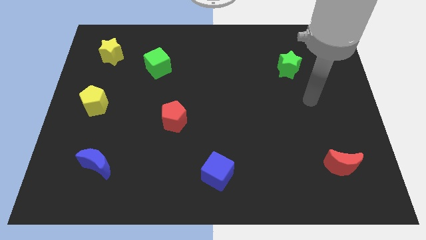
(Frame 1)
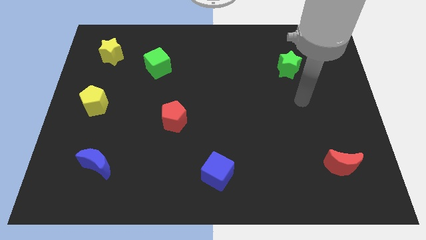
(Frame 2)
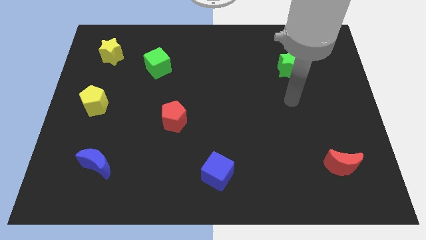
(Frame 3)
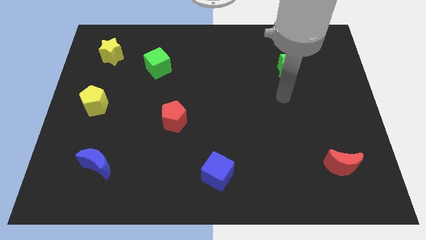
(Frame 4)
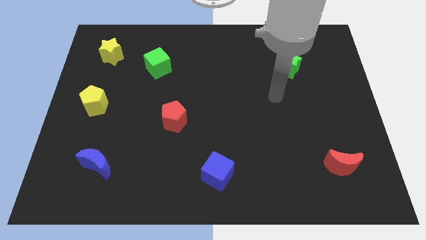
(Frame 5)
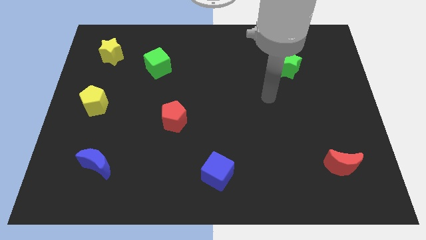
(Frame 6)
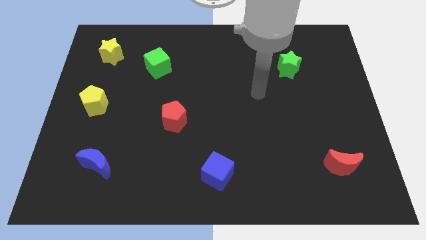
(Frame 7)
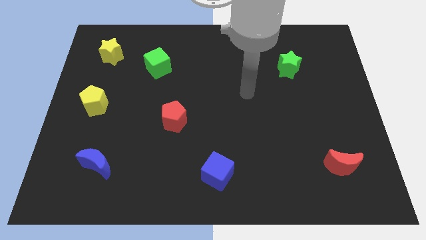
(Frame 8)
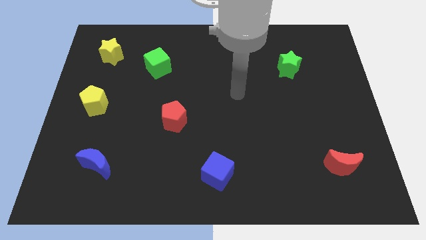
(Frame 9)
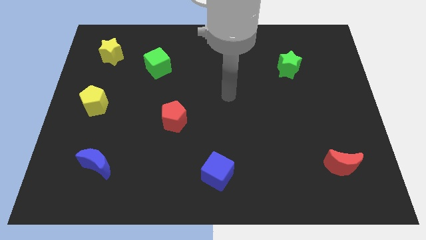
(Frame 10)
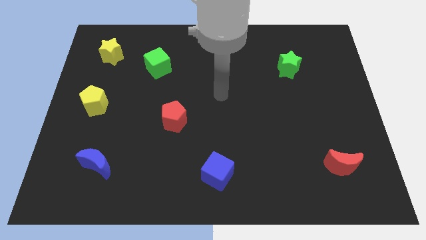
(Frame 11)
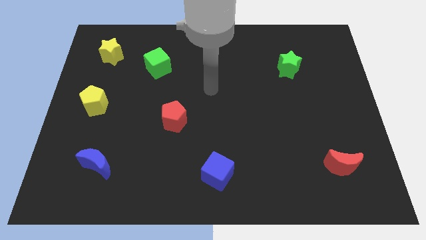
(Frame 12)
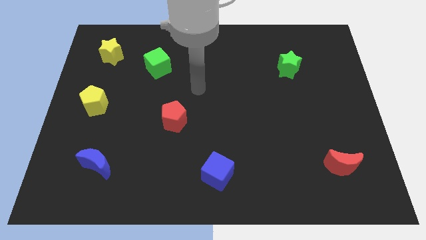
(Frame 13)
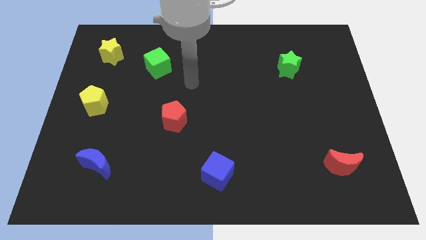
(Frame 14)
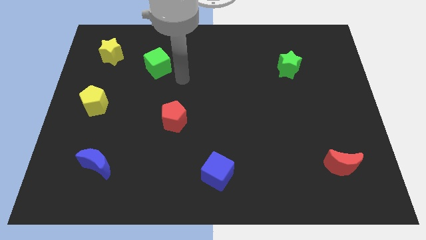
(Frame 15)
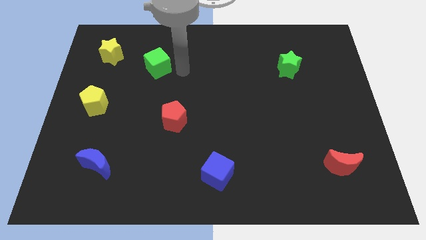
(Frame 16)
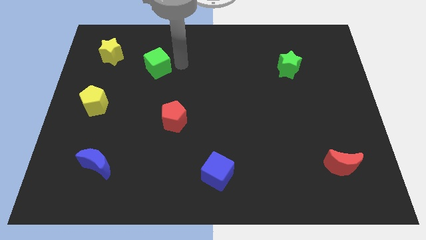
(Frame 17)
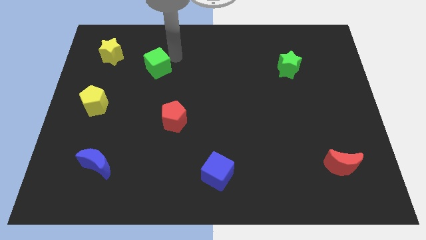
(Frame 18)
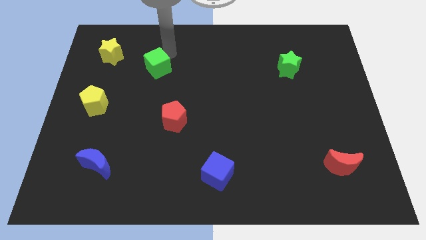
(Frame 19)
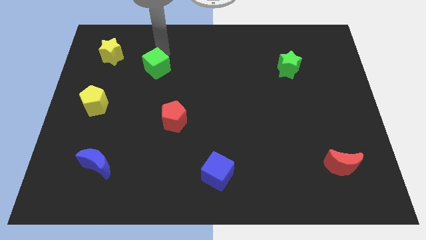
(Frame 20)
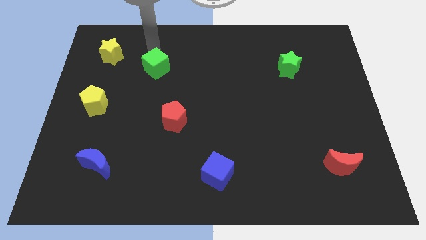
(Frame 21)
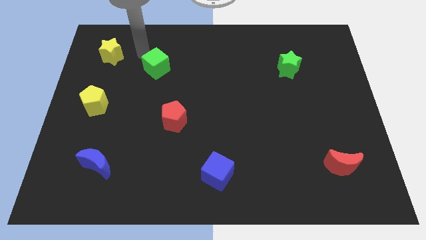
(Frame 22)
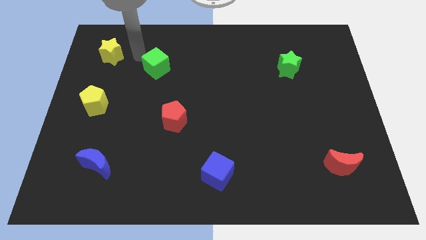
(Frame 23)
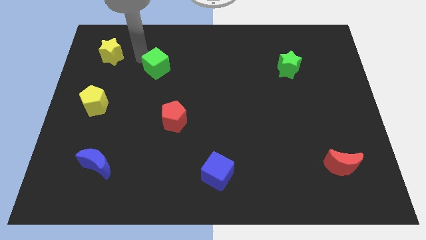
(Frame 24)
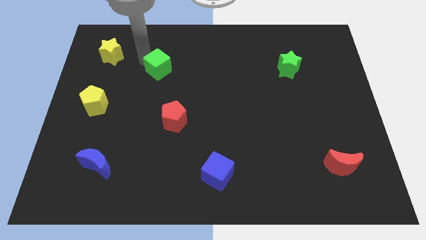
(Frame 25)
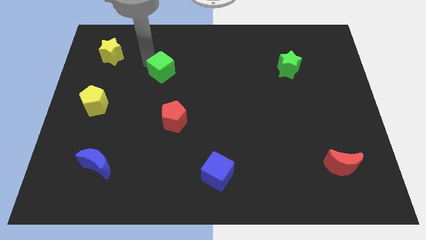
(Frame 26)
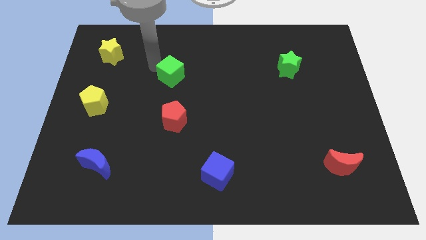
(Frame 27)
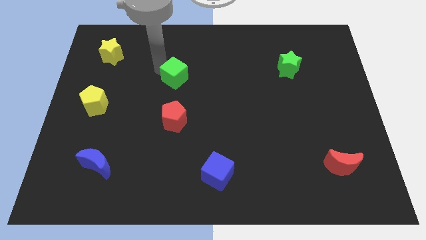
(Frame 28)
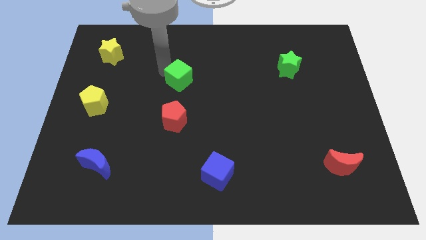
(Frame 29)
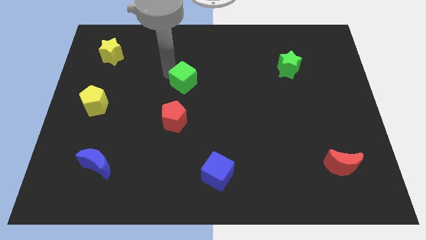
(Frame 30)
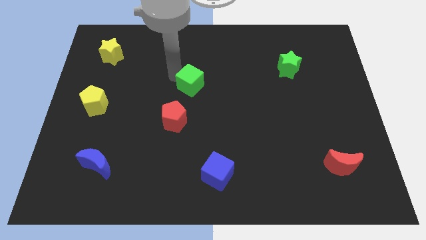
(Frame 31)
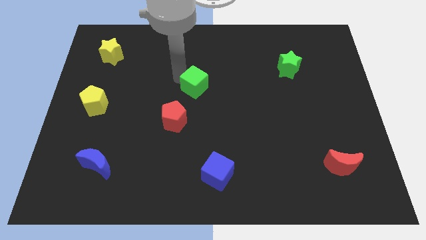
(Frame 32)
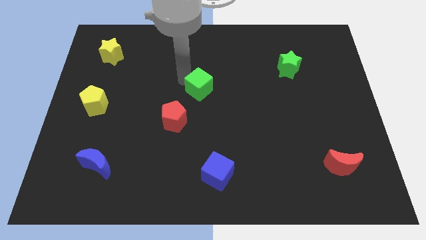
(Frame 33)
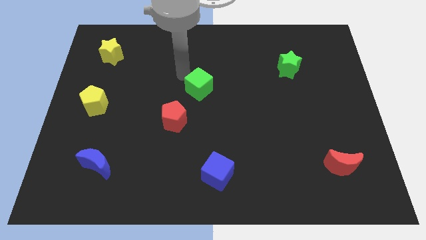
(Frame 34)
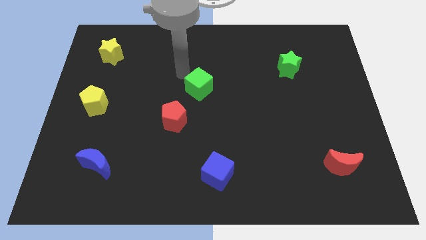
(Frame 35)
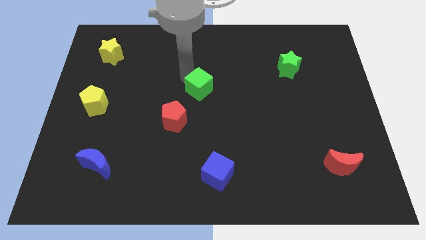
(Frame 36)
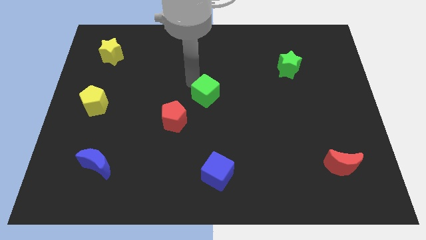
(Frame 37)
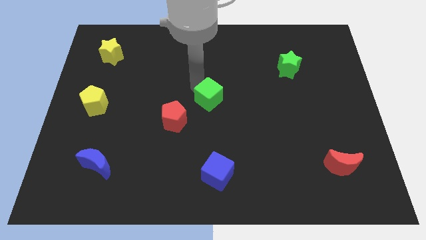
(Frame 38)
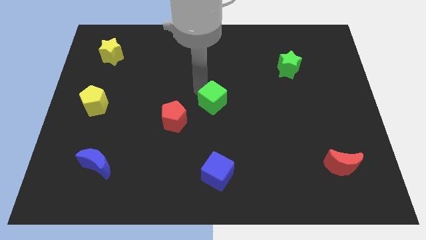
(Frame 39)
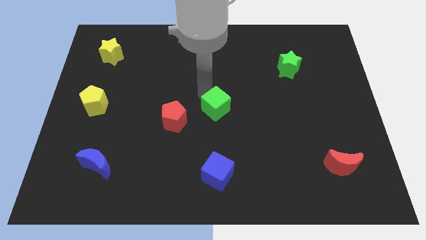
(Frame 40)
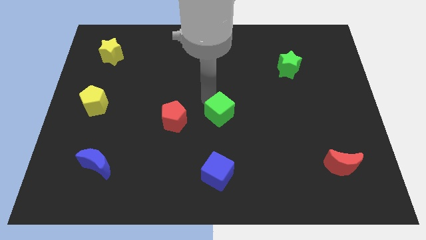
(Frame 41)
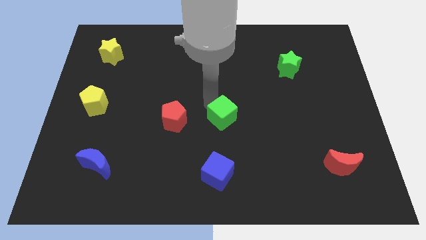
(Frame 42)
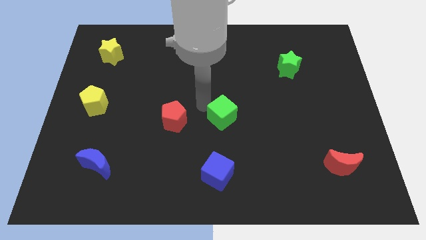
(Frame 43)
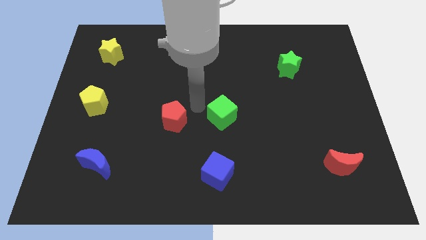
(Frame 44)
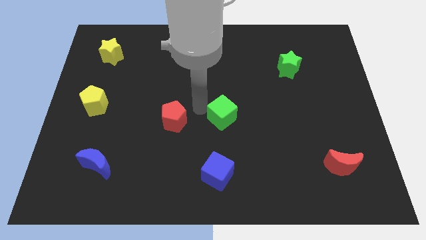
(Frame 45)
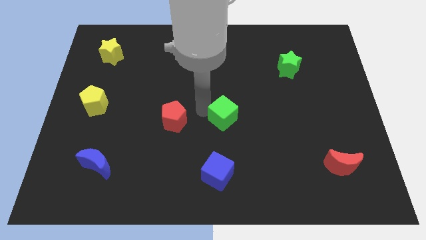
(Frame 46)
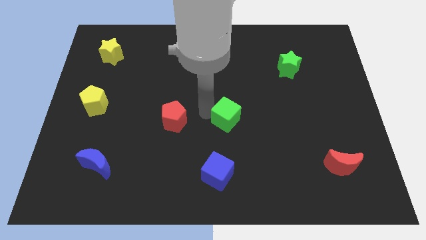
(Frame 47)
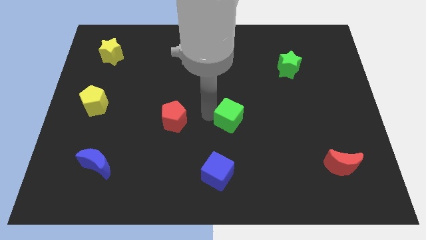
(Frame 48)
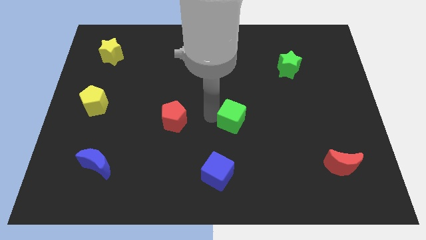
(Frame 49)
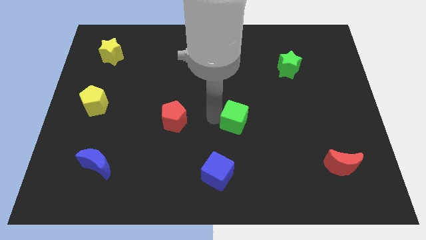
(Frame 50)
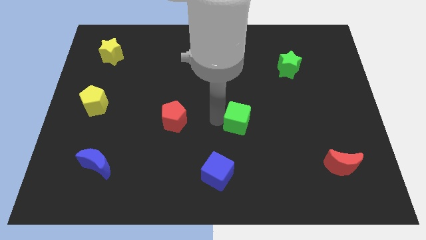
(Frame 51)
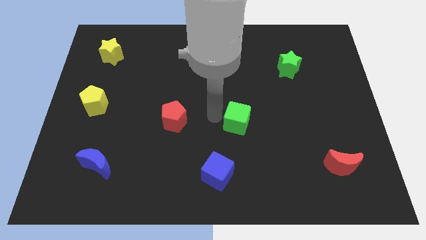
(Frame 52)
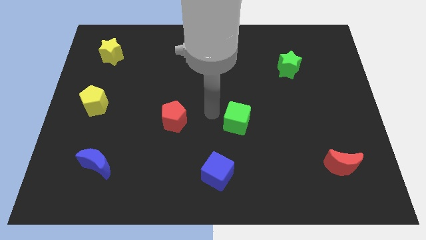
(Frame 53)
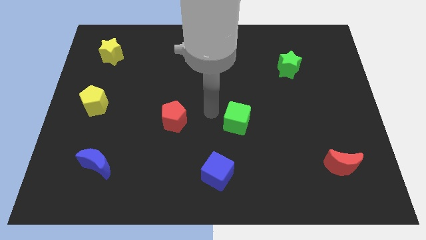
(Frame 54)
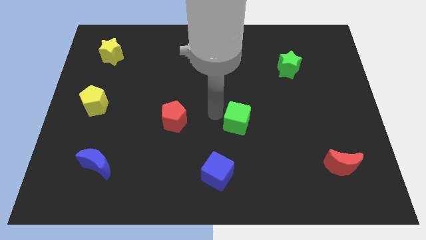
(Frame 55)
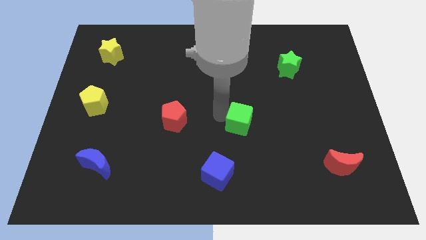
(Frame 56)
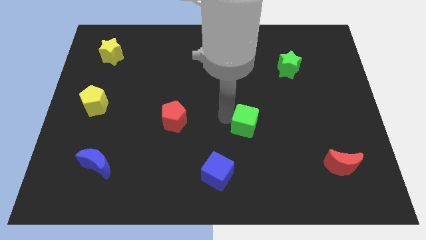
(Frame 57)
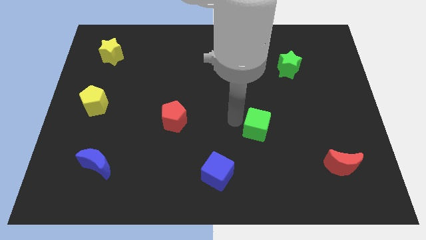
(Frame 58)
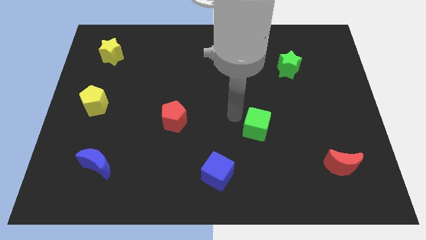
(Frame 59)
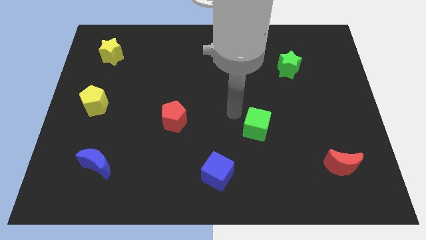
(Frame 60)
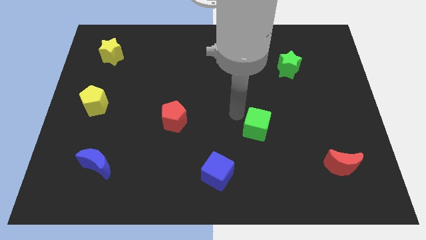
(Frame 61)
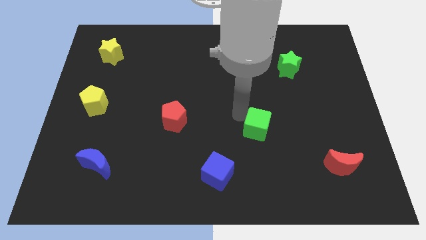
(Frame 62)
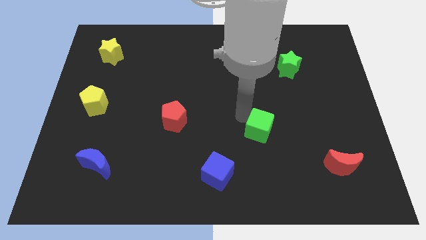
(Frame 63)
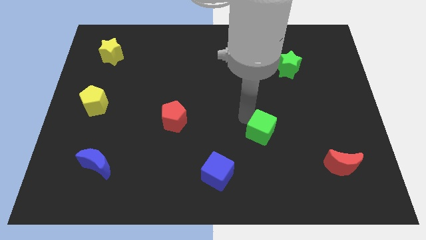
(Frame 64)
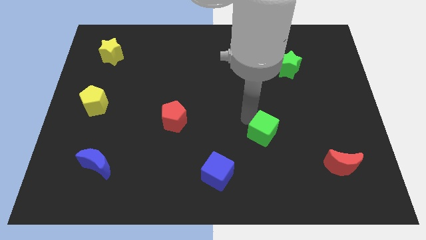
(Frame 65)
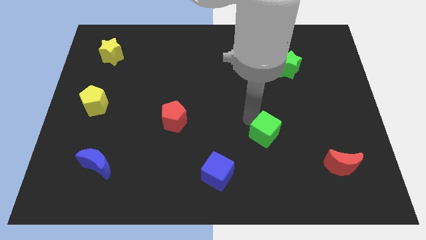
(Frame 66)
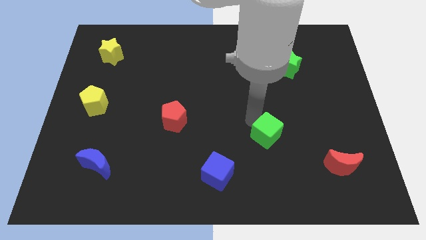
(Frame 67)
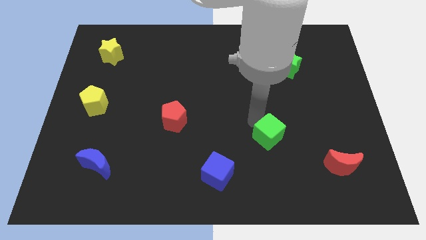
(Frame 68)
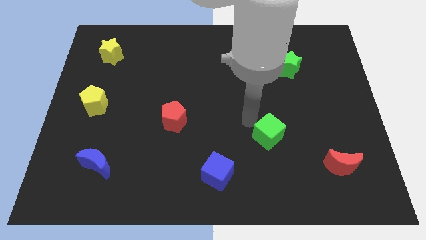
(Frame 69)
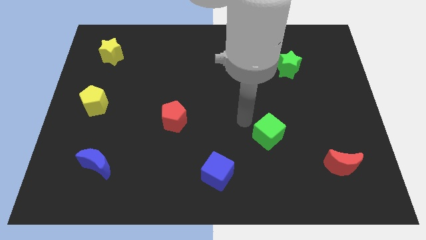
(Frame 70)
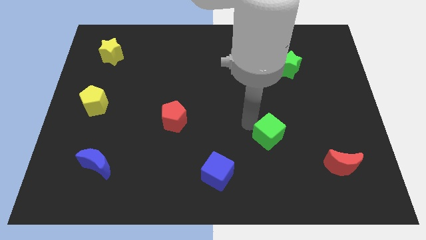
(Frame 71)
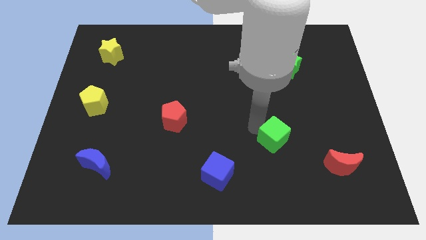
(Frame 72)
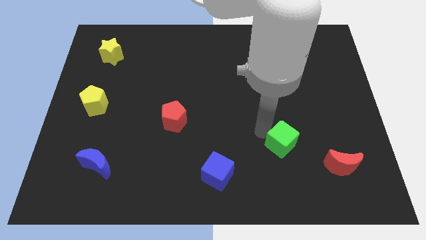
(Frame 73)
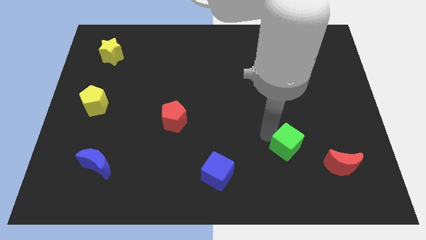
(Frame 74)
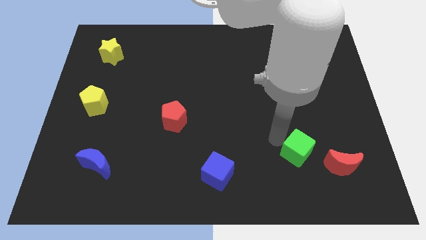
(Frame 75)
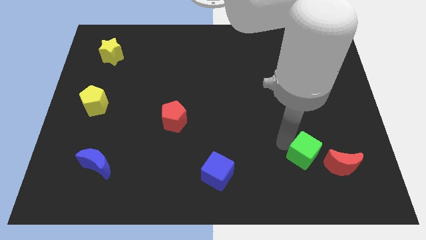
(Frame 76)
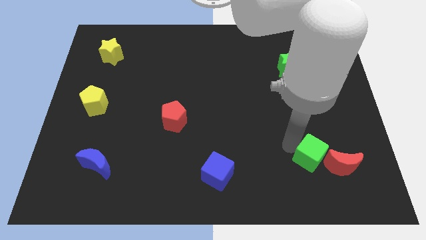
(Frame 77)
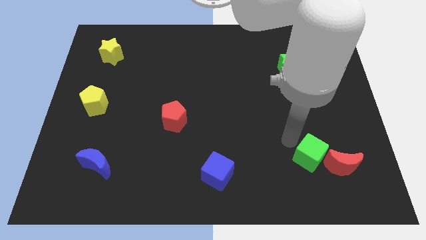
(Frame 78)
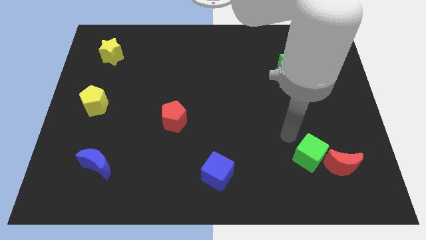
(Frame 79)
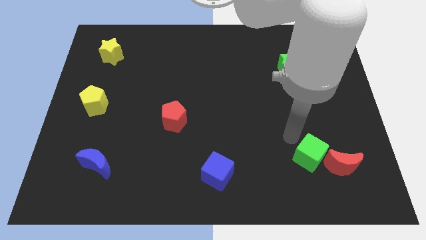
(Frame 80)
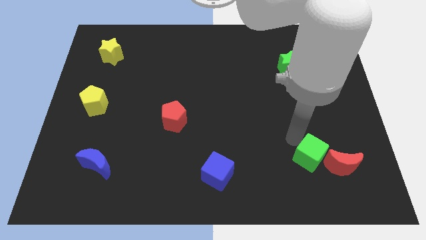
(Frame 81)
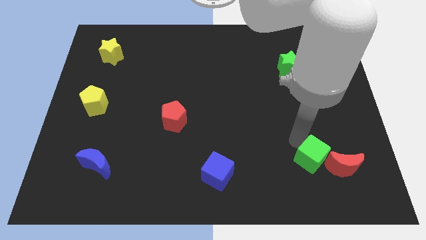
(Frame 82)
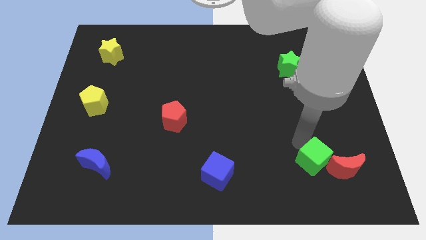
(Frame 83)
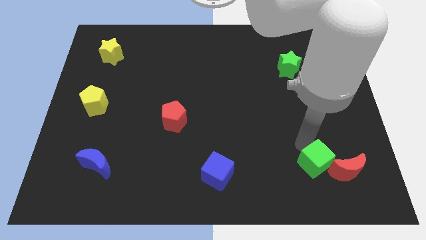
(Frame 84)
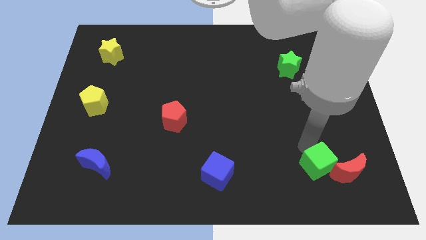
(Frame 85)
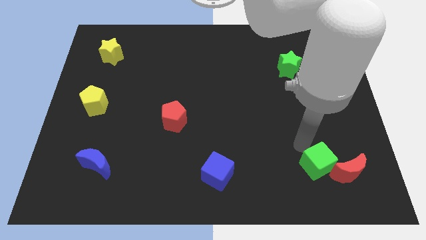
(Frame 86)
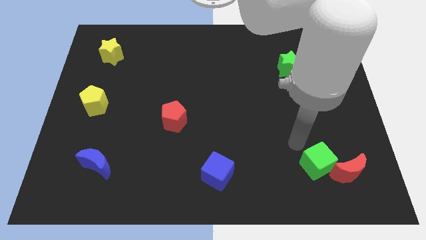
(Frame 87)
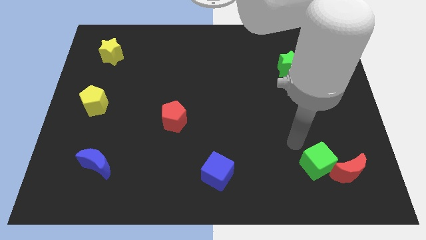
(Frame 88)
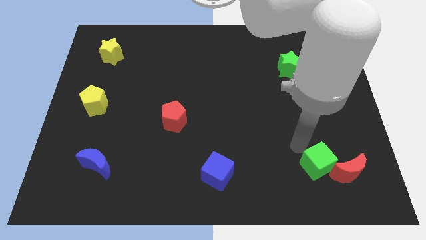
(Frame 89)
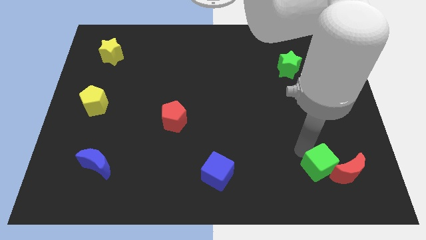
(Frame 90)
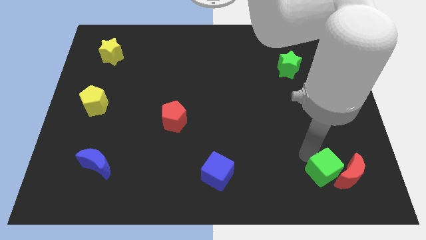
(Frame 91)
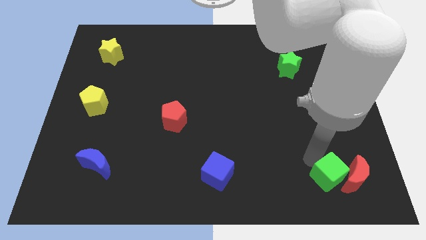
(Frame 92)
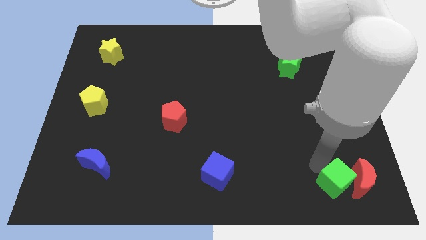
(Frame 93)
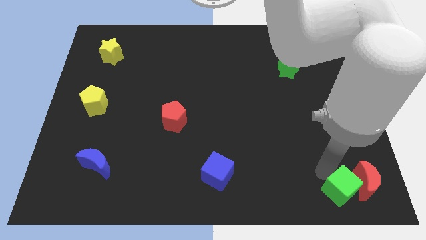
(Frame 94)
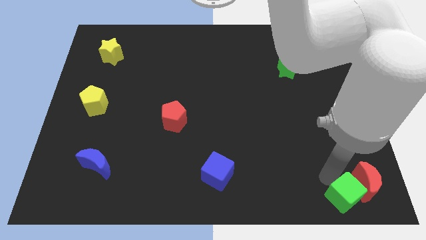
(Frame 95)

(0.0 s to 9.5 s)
put the green cube to the lower right corner
